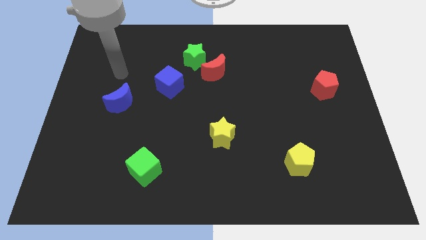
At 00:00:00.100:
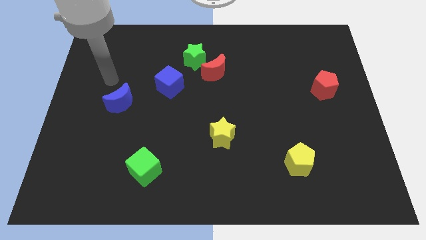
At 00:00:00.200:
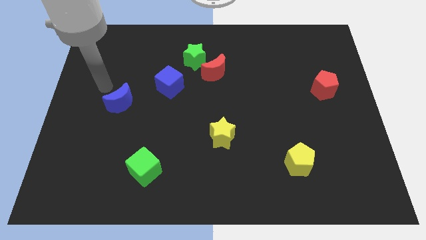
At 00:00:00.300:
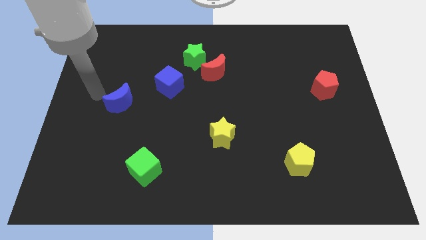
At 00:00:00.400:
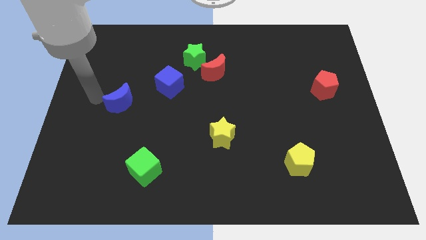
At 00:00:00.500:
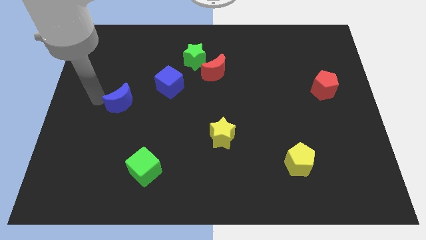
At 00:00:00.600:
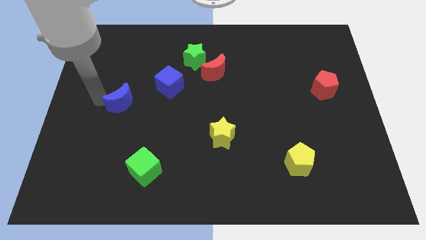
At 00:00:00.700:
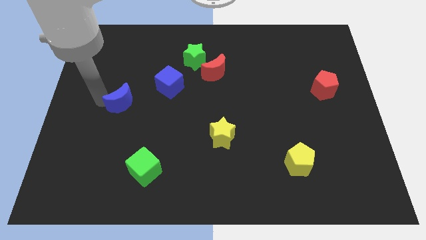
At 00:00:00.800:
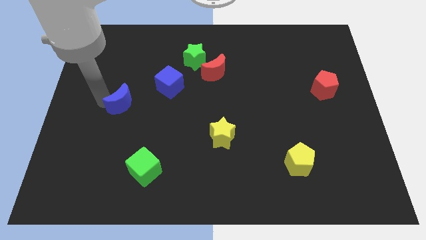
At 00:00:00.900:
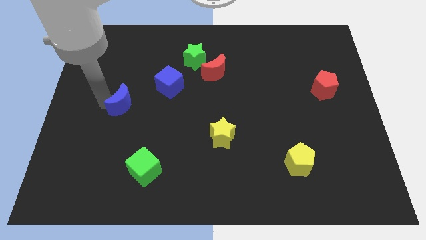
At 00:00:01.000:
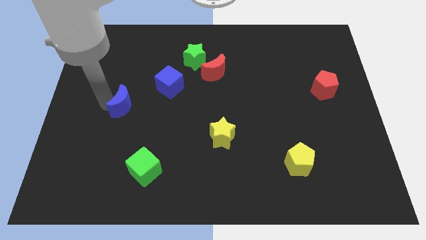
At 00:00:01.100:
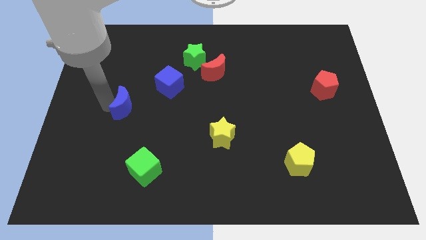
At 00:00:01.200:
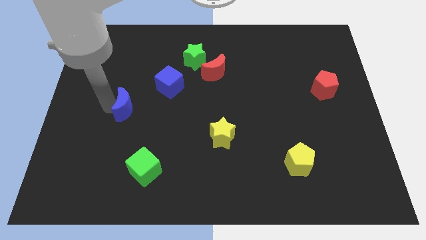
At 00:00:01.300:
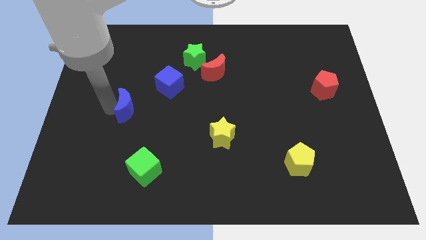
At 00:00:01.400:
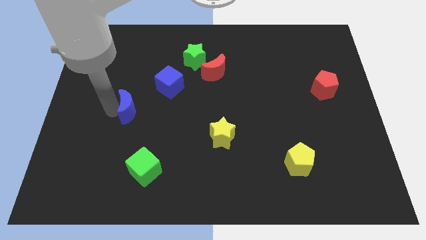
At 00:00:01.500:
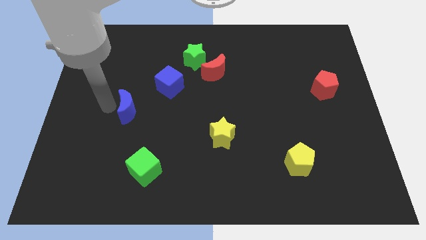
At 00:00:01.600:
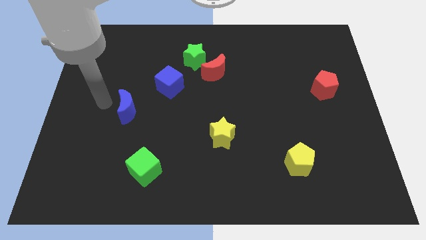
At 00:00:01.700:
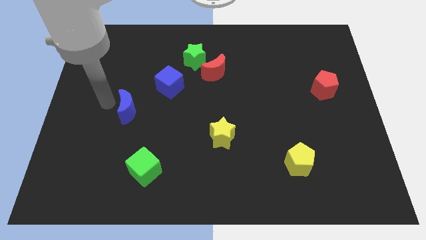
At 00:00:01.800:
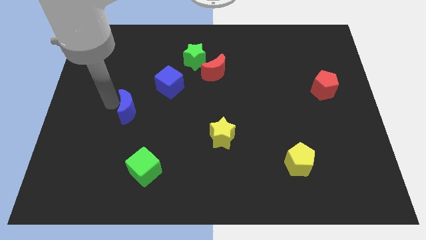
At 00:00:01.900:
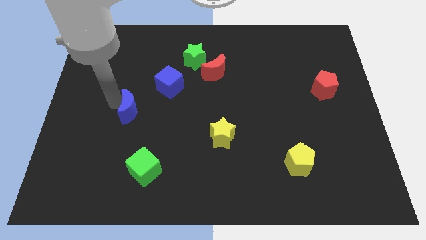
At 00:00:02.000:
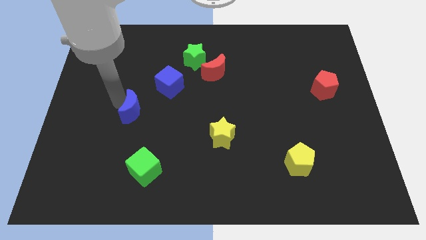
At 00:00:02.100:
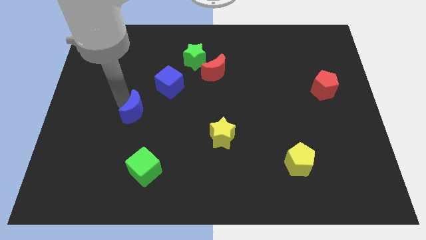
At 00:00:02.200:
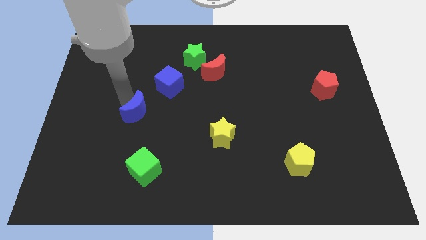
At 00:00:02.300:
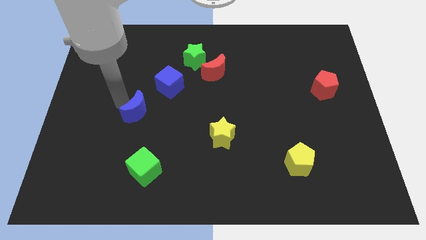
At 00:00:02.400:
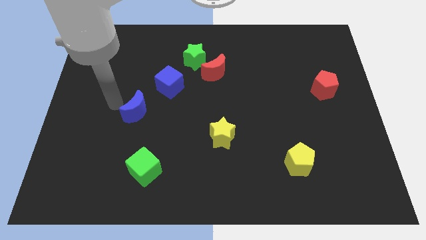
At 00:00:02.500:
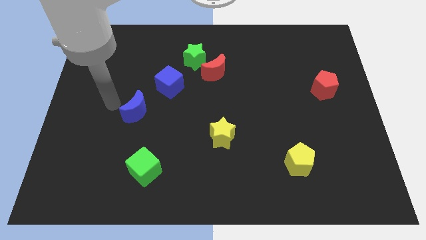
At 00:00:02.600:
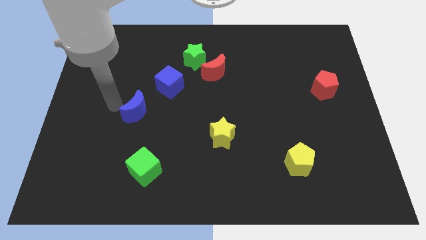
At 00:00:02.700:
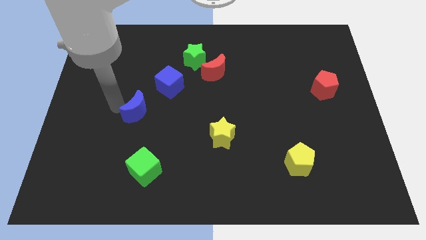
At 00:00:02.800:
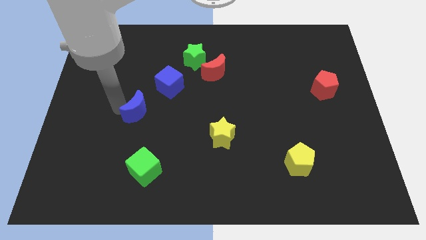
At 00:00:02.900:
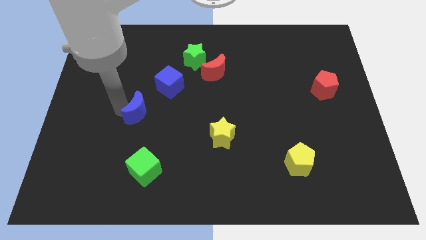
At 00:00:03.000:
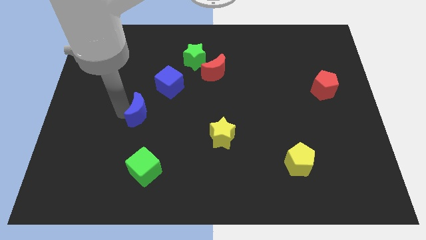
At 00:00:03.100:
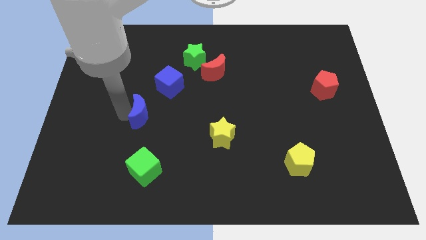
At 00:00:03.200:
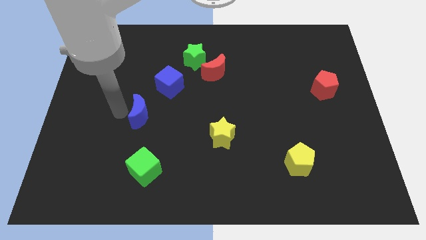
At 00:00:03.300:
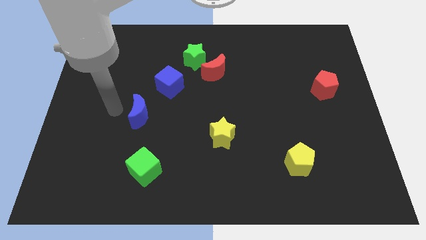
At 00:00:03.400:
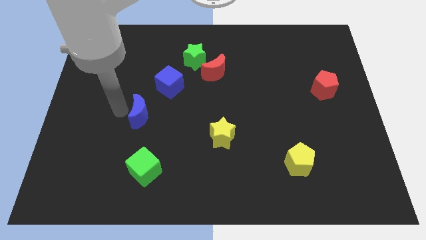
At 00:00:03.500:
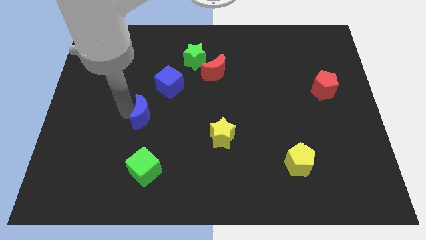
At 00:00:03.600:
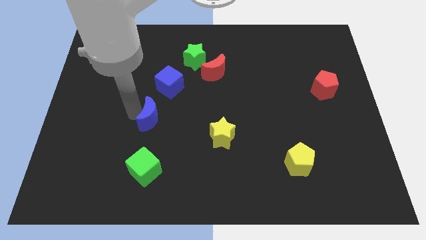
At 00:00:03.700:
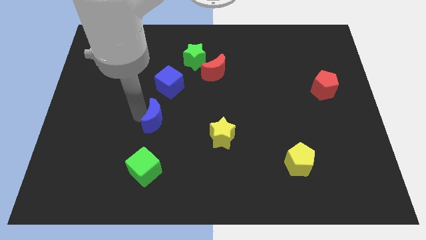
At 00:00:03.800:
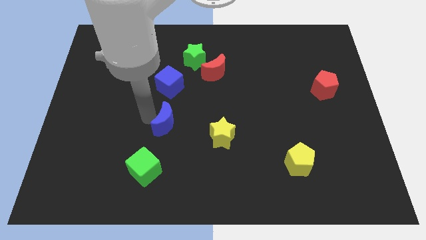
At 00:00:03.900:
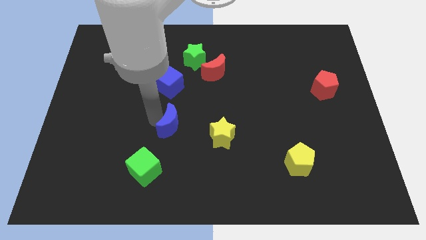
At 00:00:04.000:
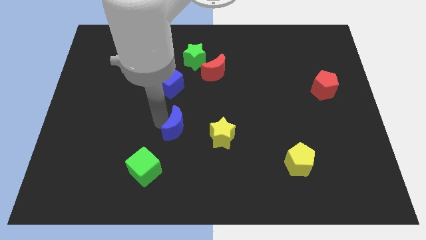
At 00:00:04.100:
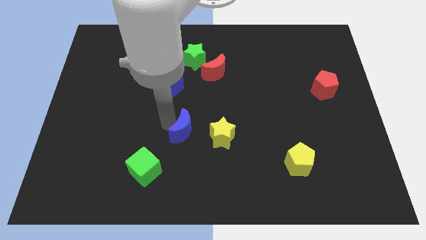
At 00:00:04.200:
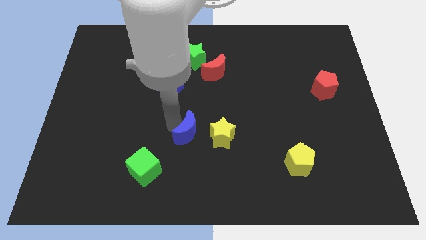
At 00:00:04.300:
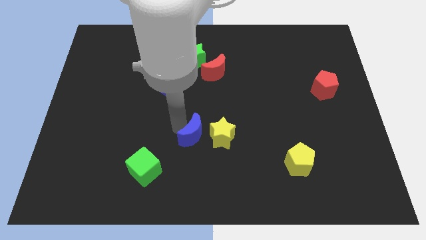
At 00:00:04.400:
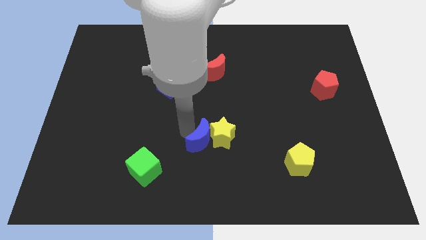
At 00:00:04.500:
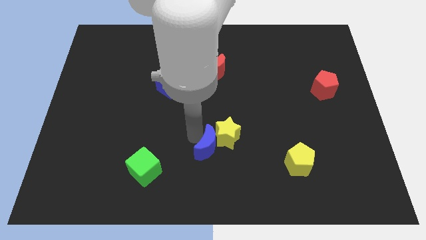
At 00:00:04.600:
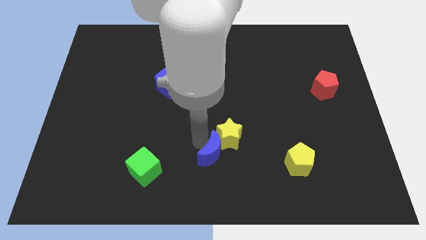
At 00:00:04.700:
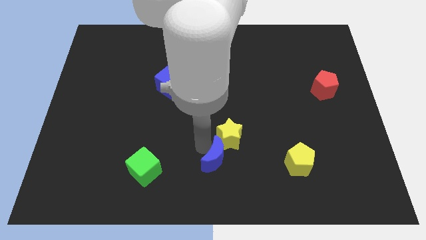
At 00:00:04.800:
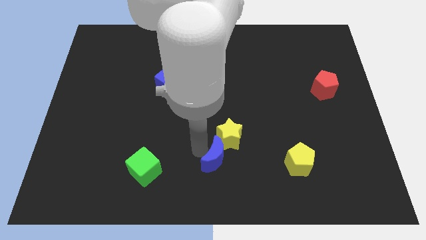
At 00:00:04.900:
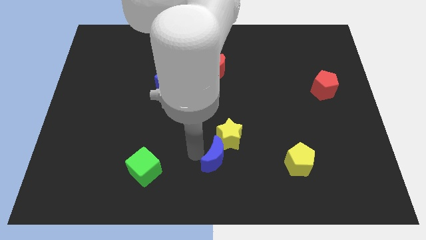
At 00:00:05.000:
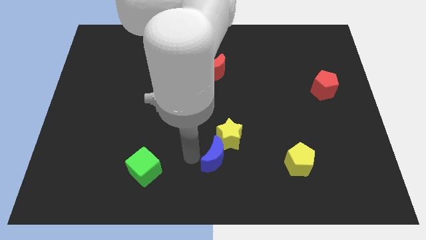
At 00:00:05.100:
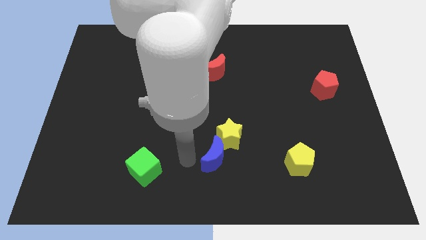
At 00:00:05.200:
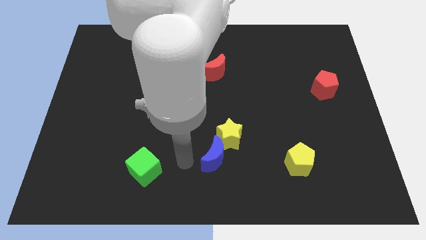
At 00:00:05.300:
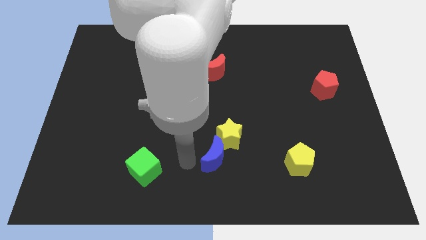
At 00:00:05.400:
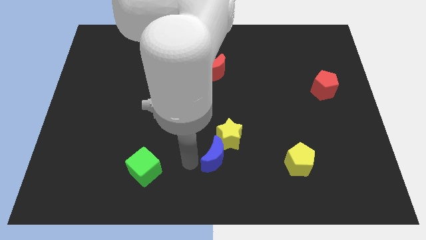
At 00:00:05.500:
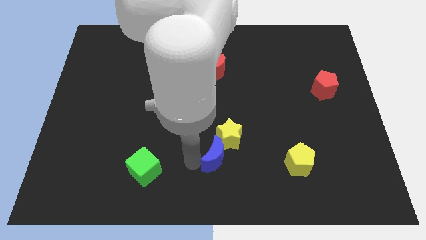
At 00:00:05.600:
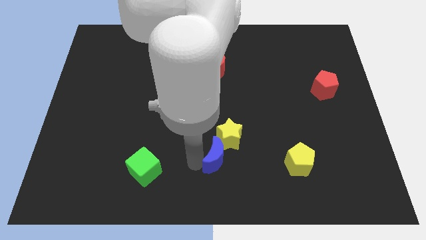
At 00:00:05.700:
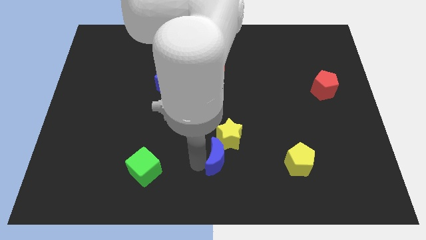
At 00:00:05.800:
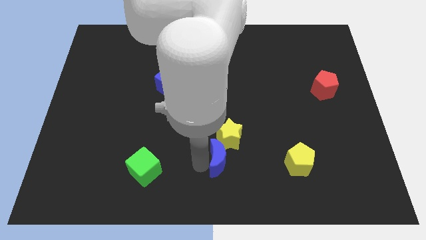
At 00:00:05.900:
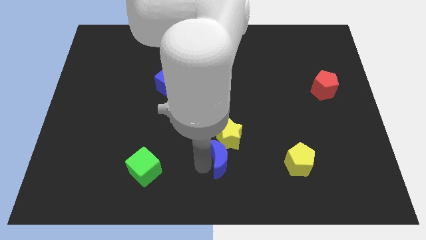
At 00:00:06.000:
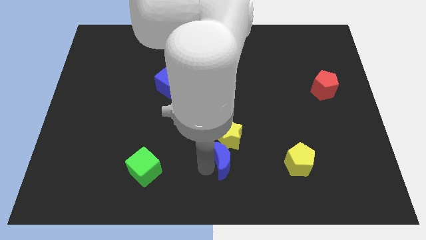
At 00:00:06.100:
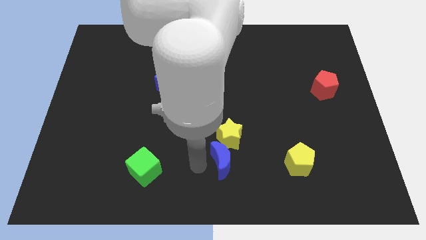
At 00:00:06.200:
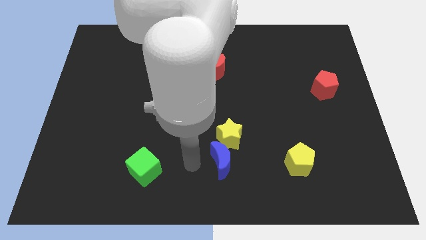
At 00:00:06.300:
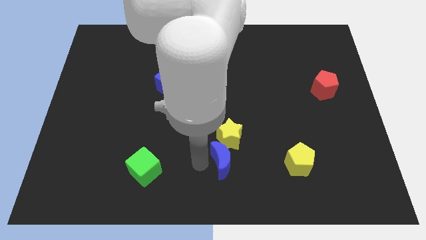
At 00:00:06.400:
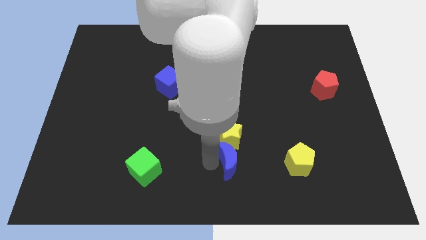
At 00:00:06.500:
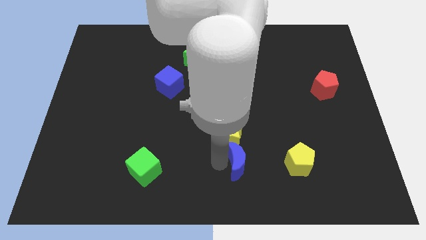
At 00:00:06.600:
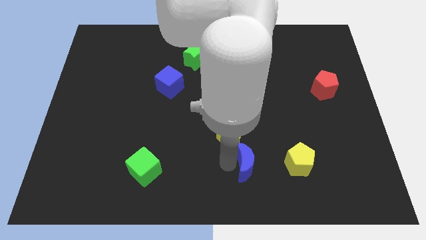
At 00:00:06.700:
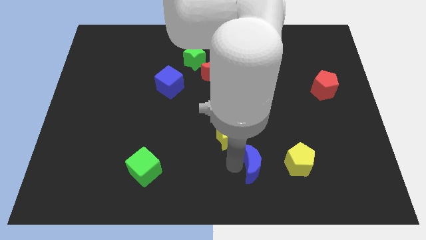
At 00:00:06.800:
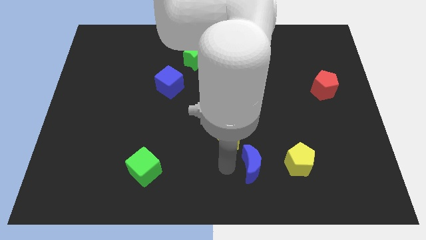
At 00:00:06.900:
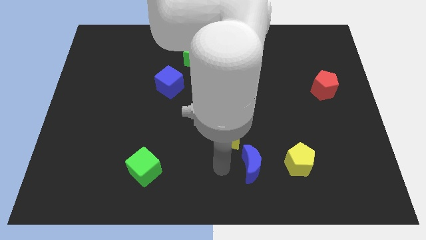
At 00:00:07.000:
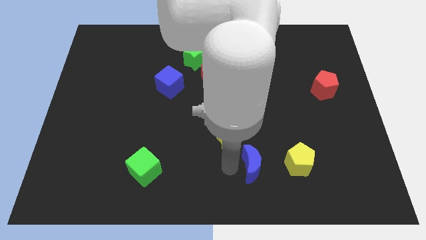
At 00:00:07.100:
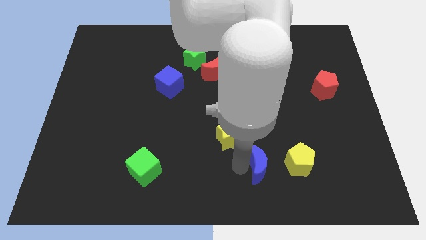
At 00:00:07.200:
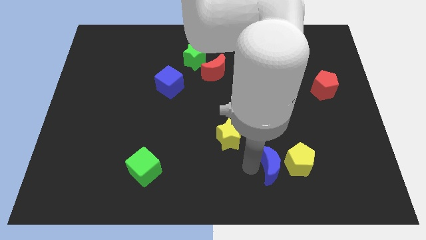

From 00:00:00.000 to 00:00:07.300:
move the blue moon towards the yellow pentagon
